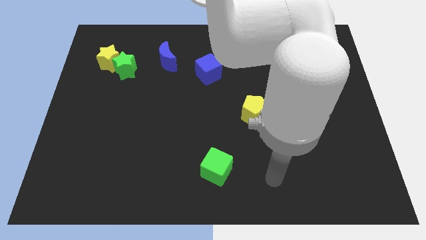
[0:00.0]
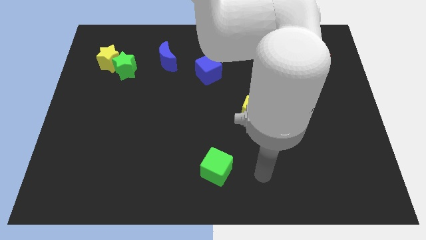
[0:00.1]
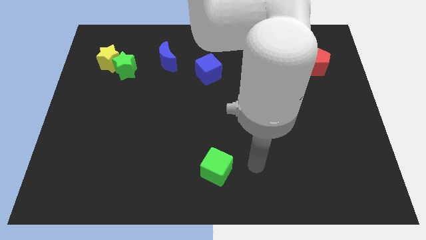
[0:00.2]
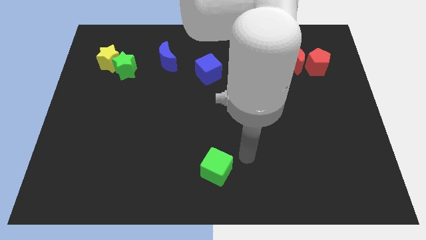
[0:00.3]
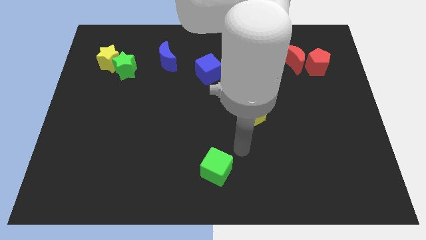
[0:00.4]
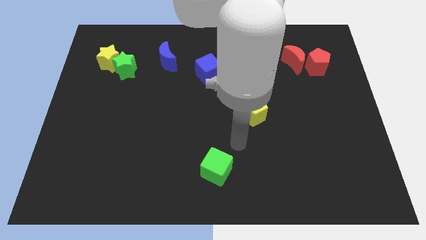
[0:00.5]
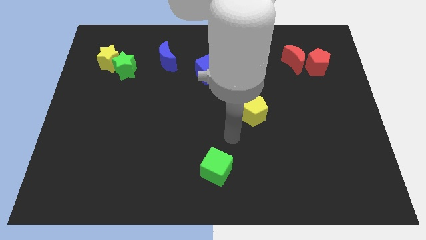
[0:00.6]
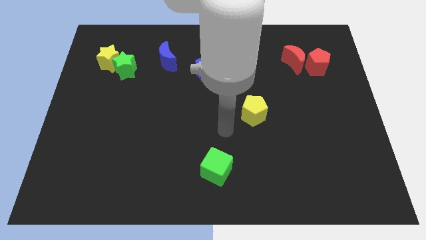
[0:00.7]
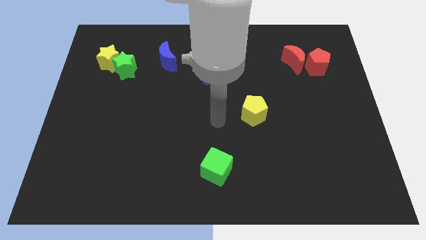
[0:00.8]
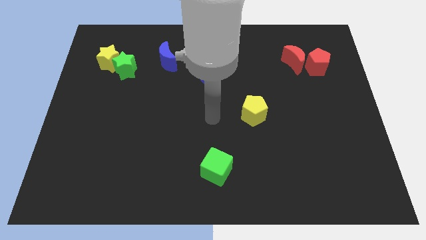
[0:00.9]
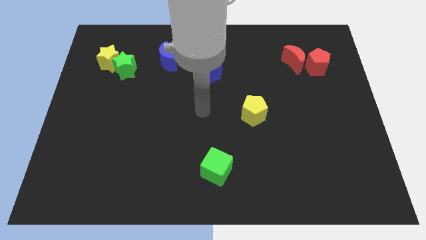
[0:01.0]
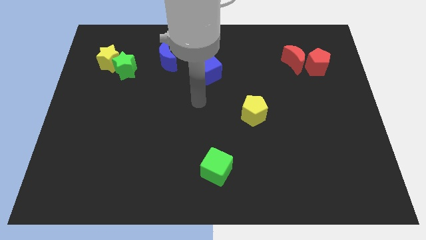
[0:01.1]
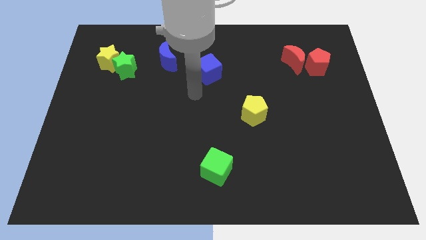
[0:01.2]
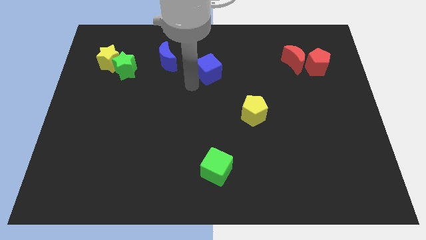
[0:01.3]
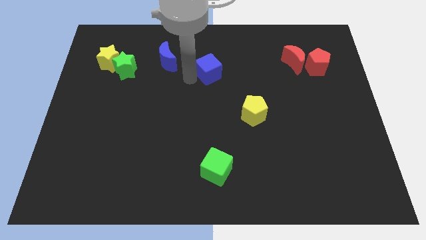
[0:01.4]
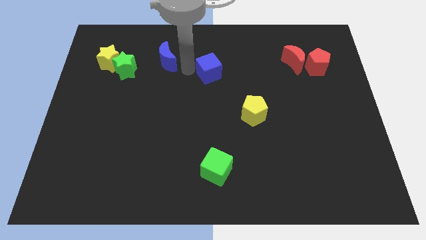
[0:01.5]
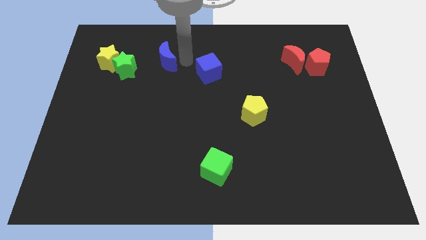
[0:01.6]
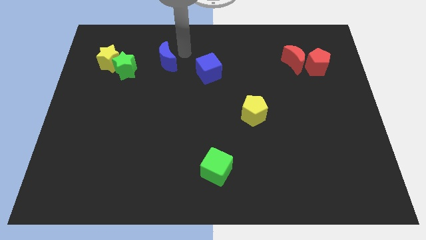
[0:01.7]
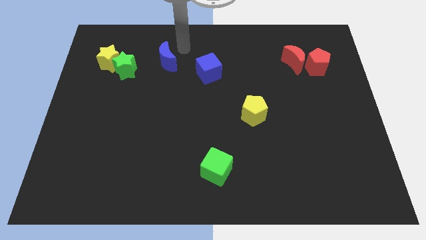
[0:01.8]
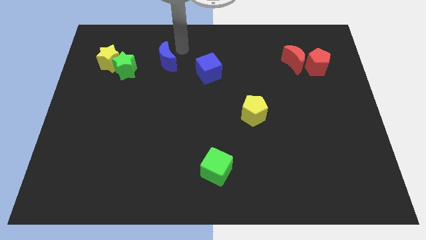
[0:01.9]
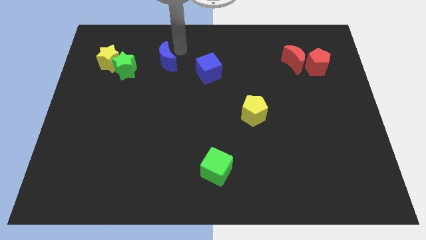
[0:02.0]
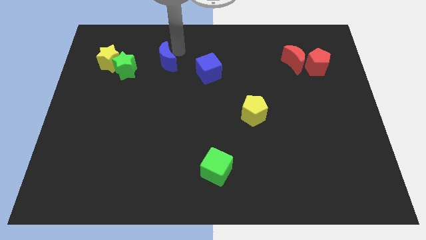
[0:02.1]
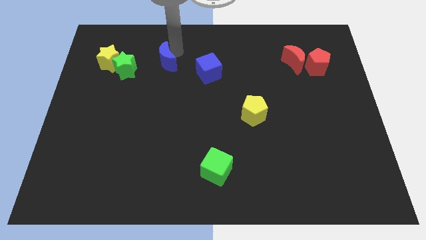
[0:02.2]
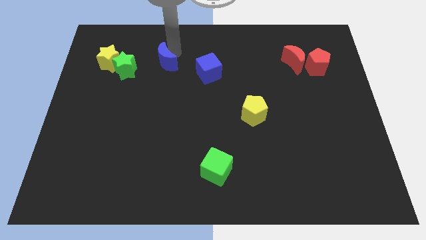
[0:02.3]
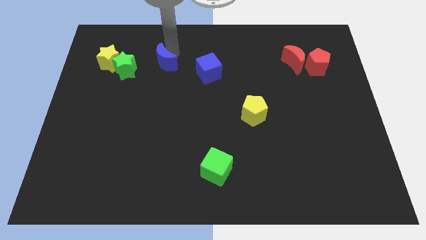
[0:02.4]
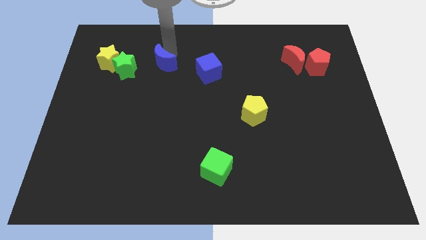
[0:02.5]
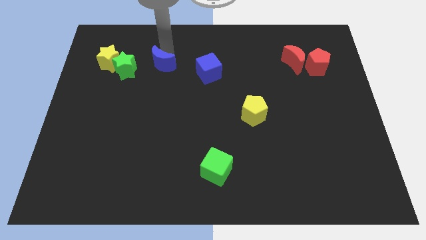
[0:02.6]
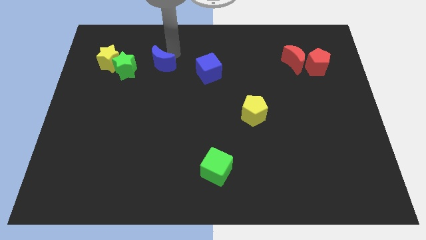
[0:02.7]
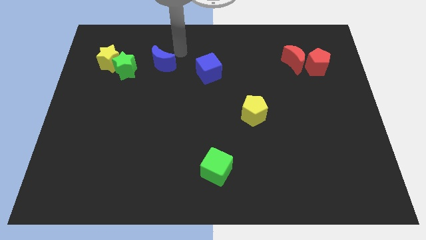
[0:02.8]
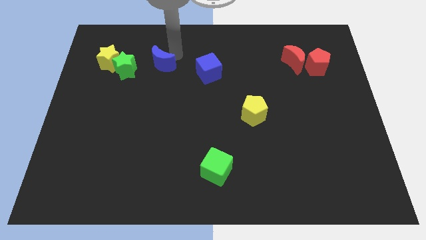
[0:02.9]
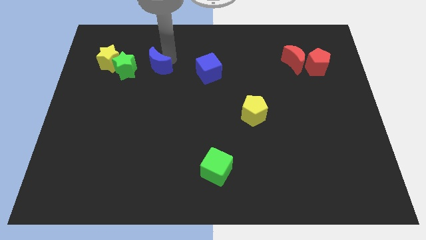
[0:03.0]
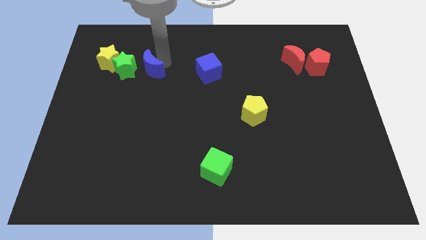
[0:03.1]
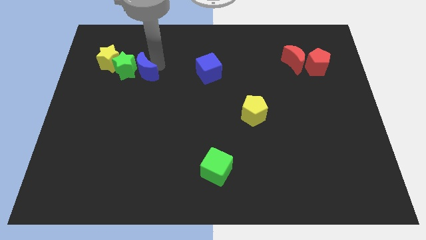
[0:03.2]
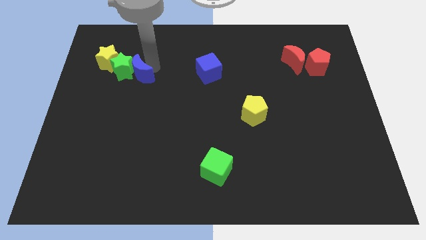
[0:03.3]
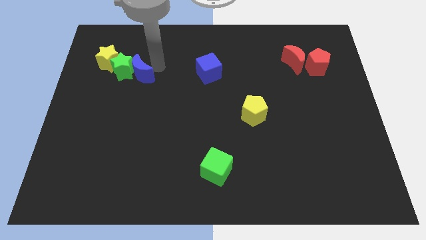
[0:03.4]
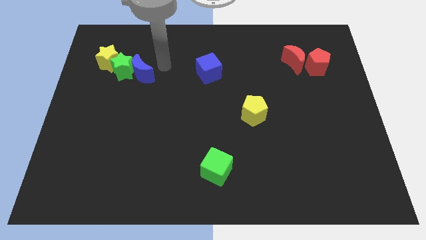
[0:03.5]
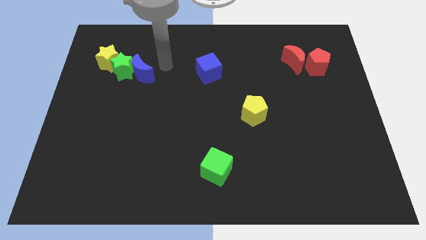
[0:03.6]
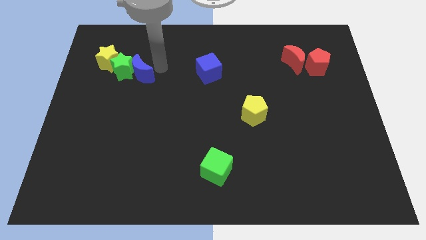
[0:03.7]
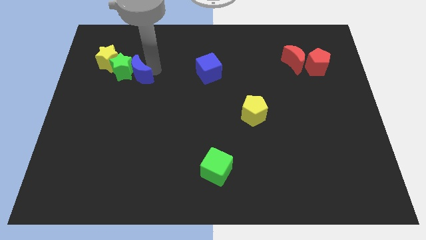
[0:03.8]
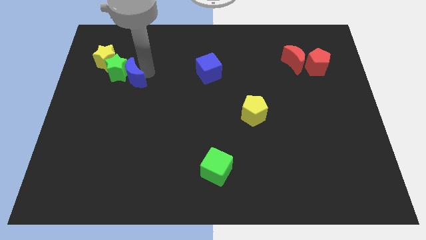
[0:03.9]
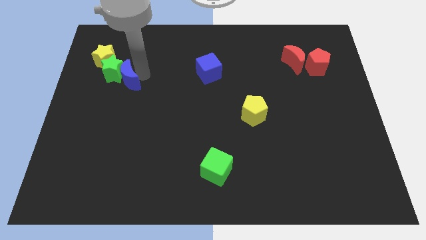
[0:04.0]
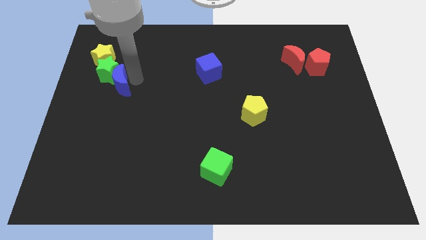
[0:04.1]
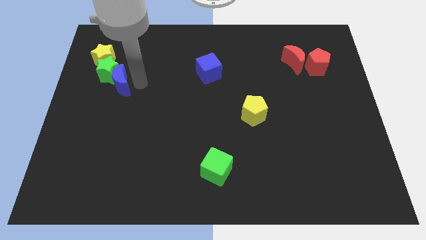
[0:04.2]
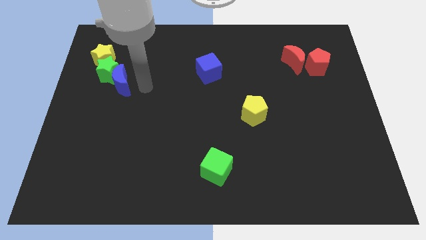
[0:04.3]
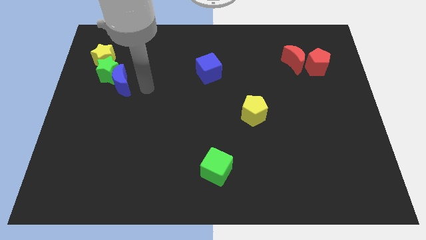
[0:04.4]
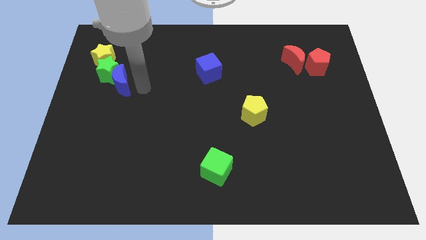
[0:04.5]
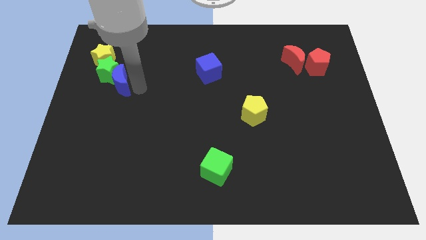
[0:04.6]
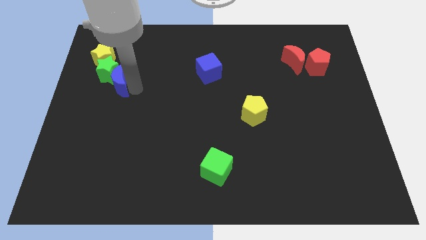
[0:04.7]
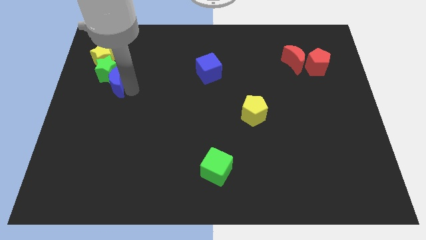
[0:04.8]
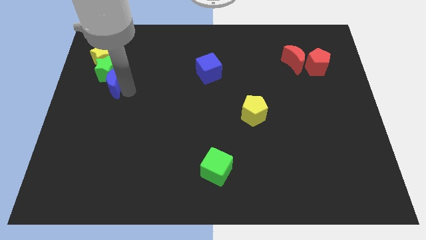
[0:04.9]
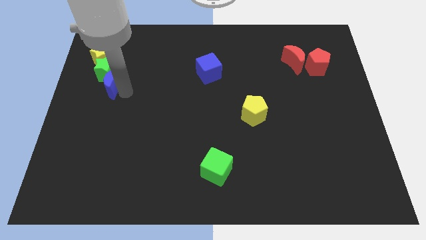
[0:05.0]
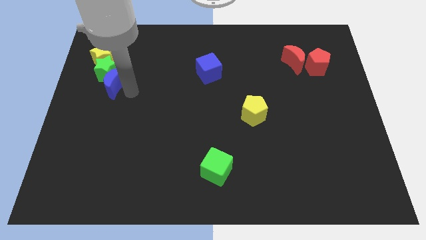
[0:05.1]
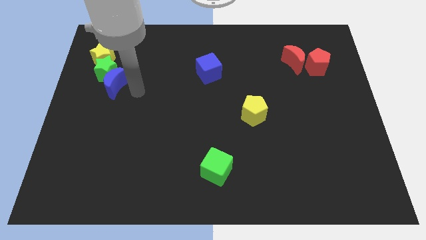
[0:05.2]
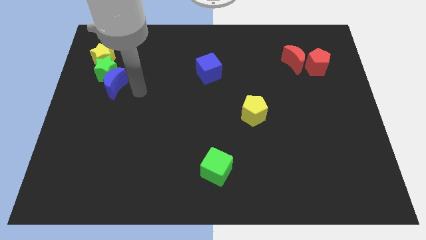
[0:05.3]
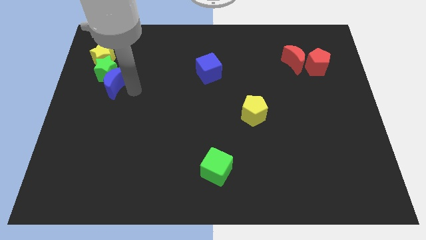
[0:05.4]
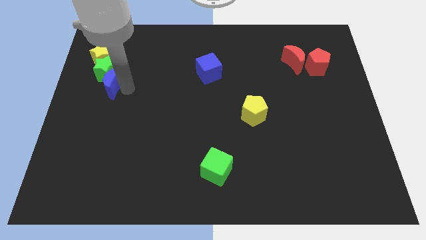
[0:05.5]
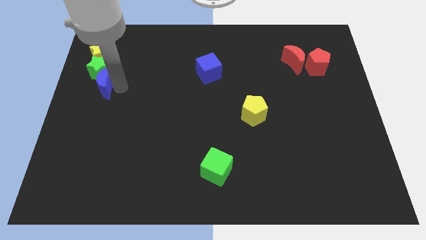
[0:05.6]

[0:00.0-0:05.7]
push the blue moon to the left side

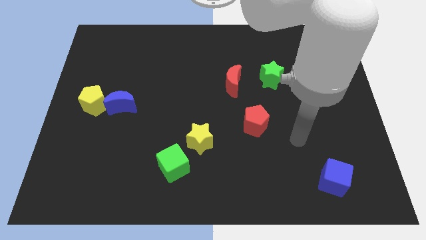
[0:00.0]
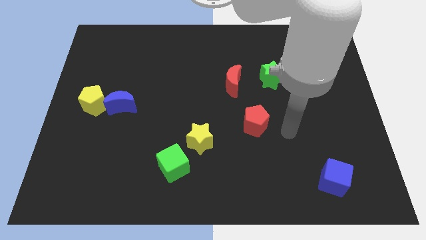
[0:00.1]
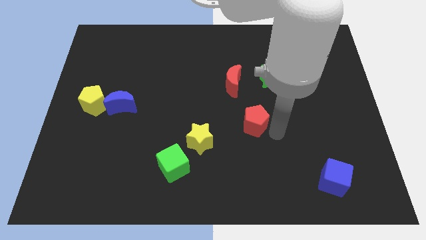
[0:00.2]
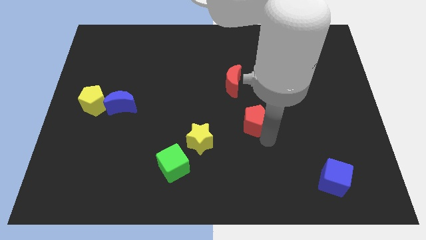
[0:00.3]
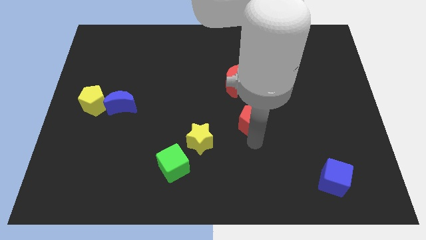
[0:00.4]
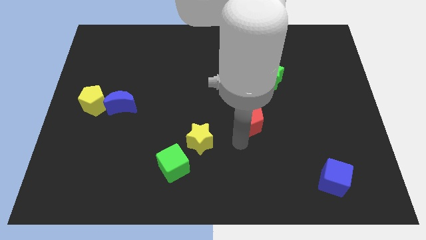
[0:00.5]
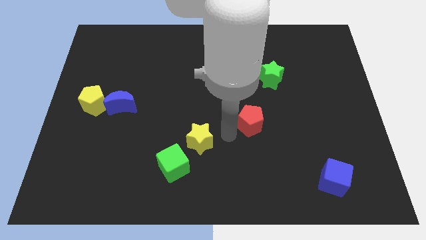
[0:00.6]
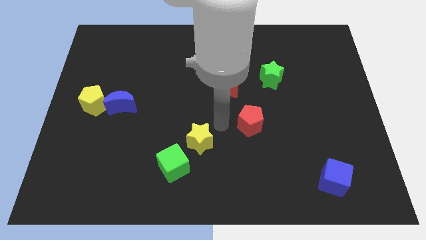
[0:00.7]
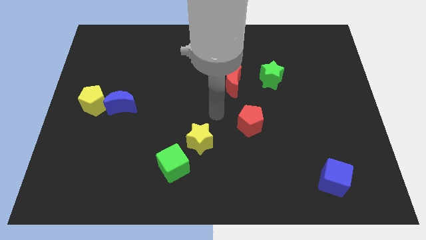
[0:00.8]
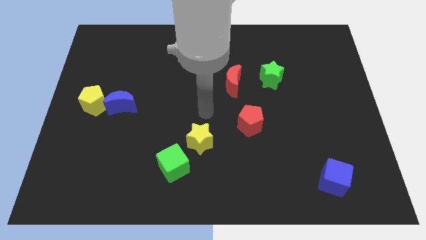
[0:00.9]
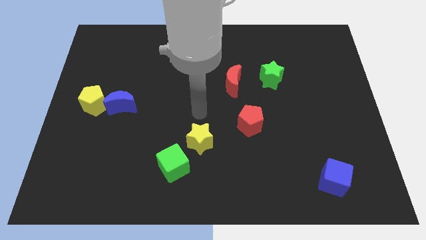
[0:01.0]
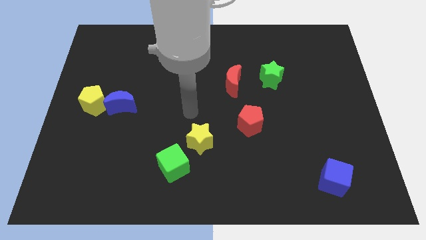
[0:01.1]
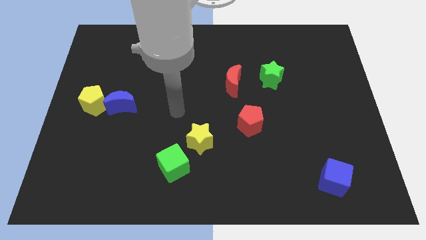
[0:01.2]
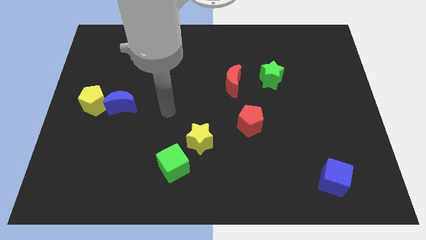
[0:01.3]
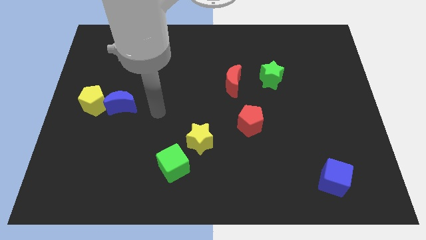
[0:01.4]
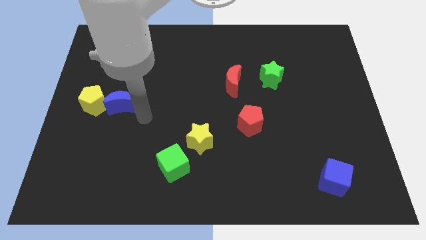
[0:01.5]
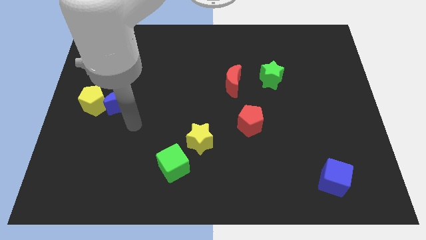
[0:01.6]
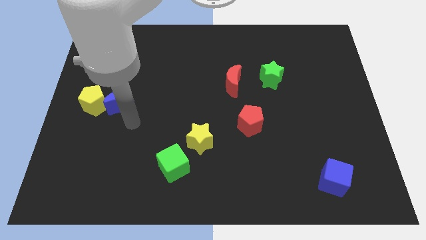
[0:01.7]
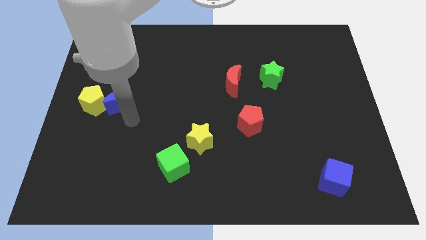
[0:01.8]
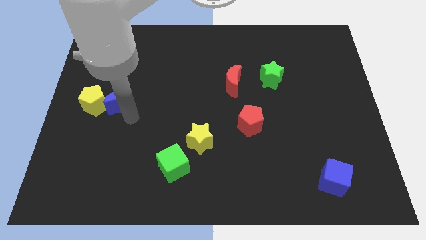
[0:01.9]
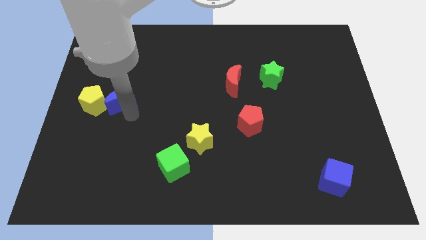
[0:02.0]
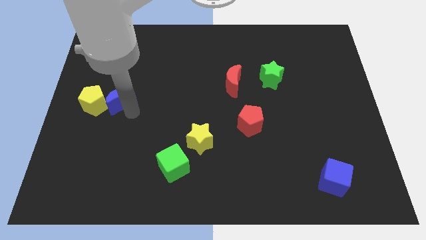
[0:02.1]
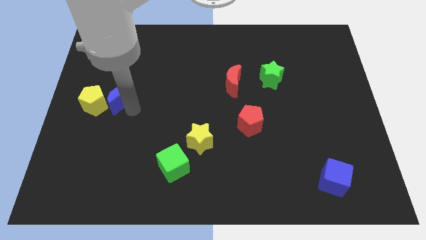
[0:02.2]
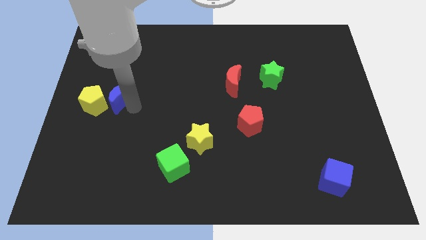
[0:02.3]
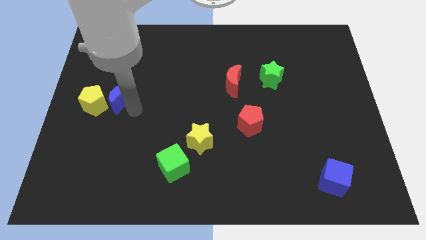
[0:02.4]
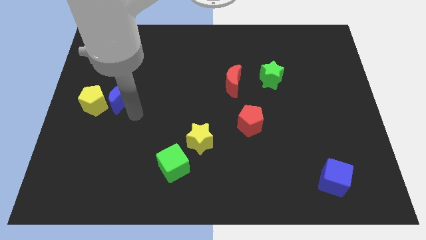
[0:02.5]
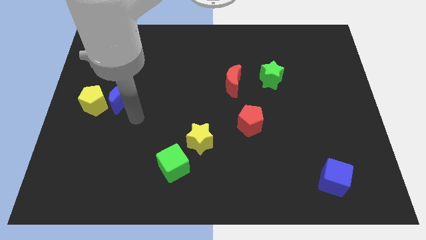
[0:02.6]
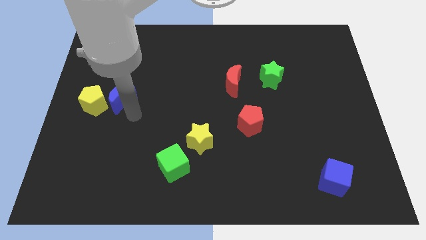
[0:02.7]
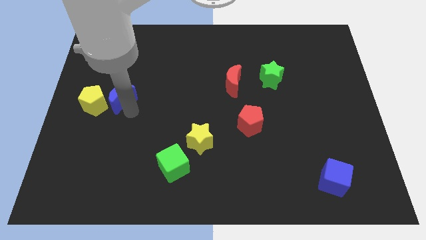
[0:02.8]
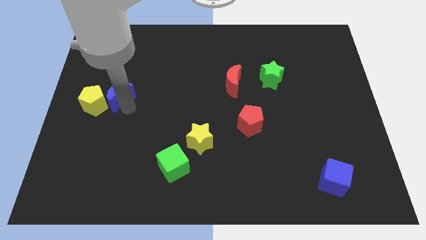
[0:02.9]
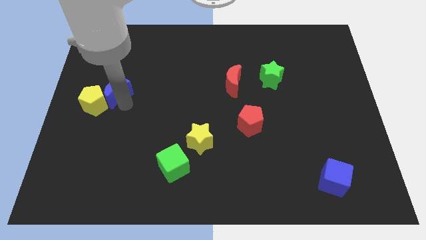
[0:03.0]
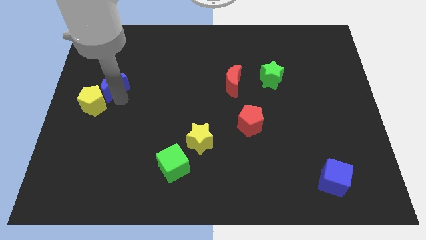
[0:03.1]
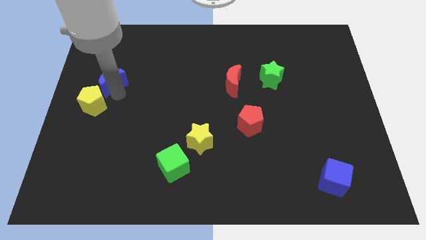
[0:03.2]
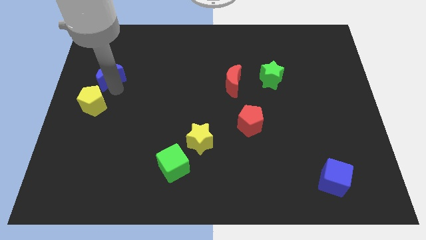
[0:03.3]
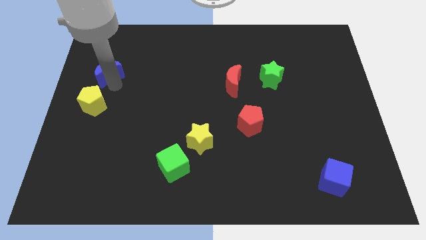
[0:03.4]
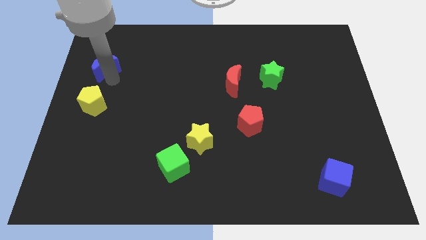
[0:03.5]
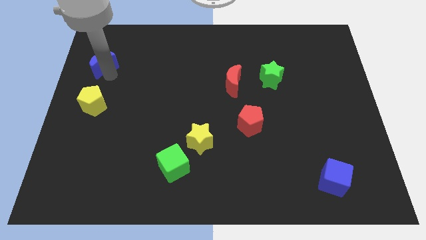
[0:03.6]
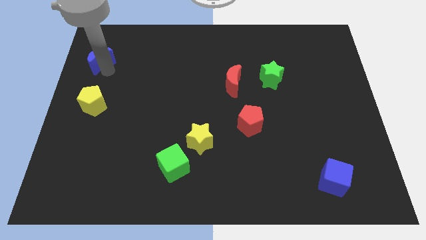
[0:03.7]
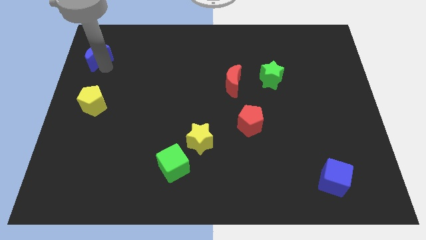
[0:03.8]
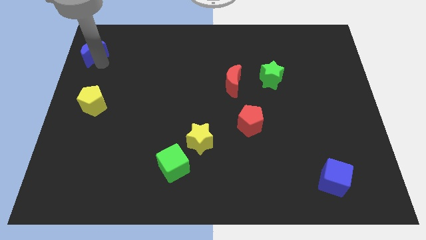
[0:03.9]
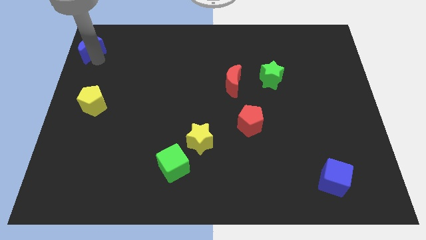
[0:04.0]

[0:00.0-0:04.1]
push the blue moon to the top left
